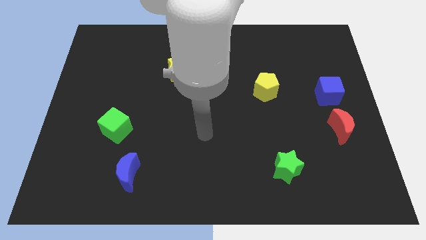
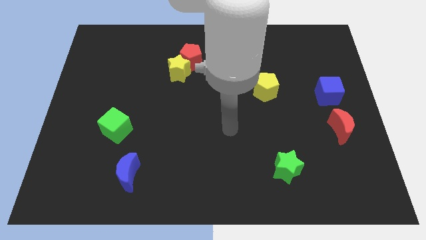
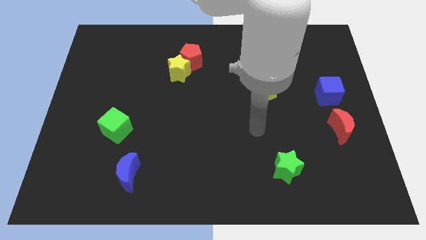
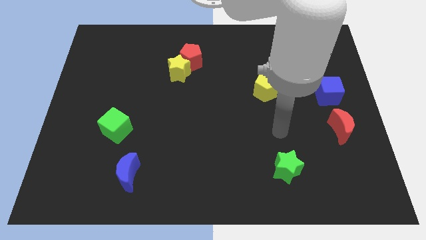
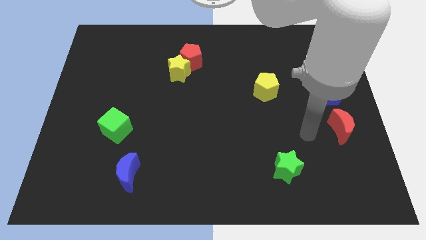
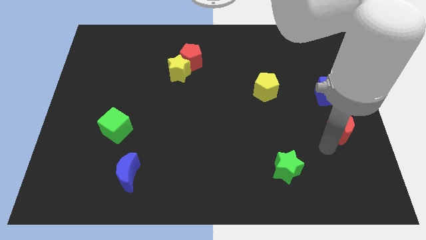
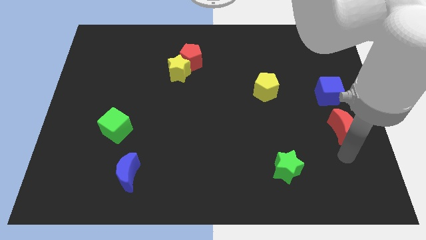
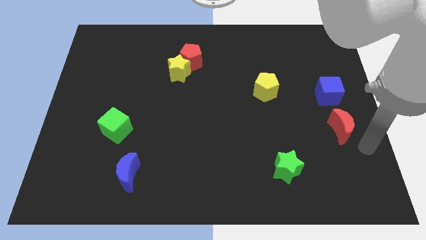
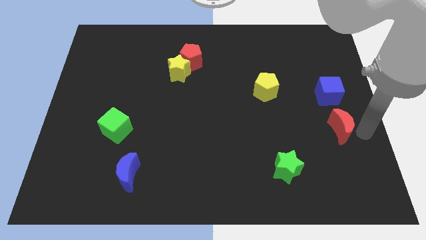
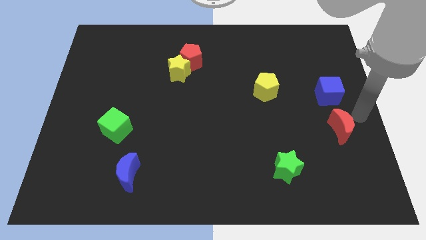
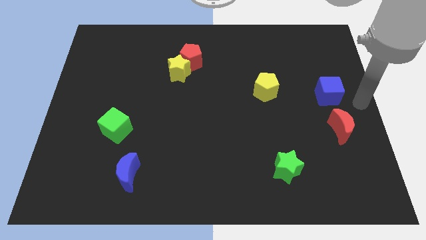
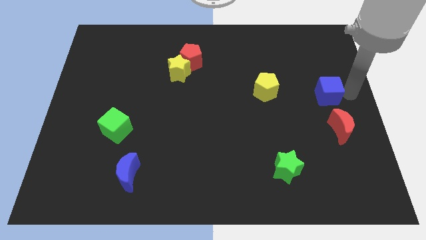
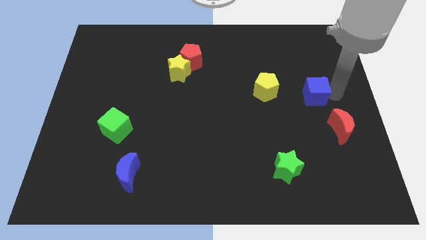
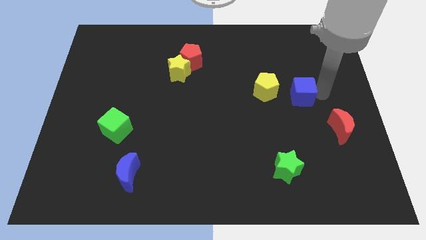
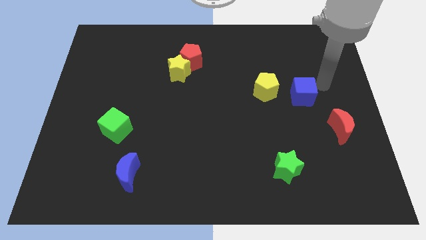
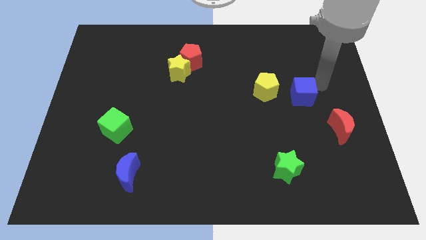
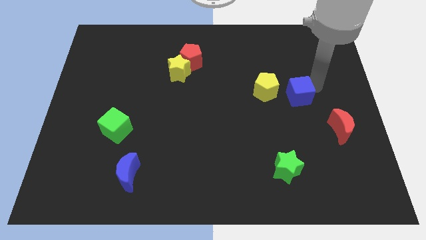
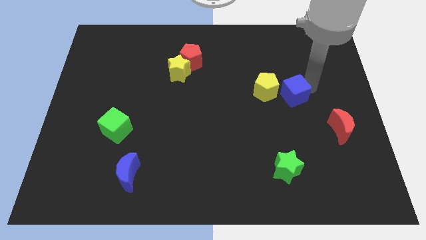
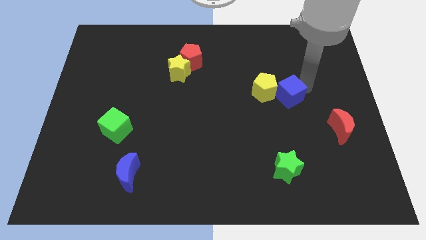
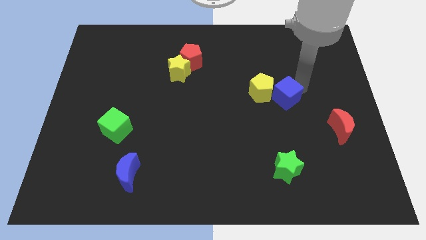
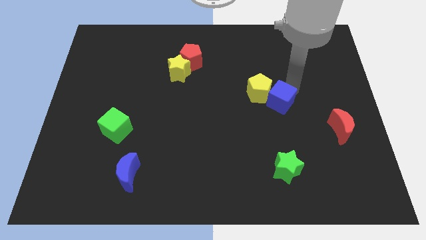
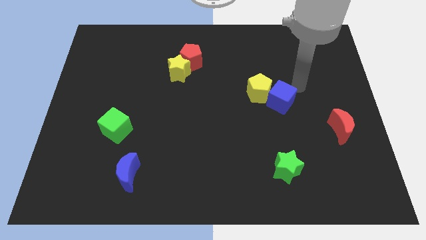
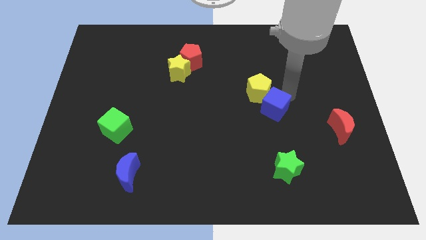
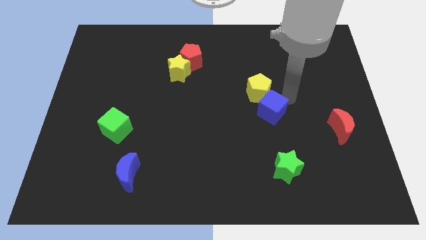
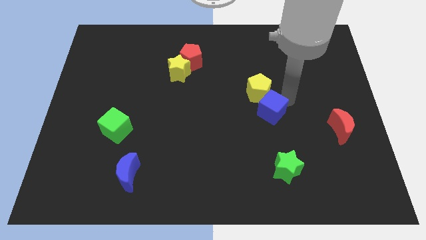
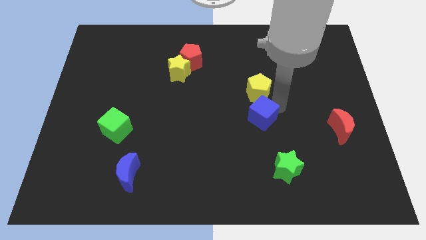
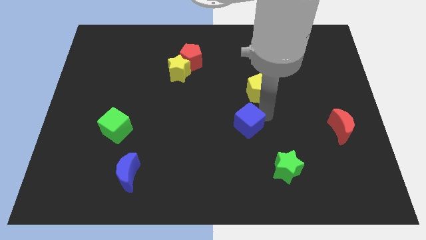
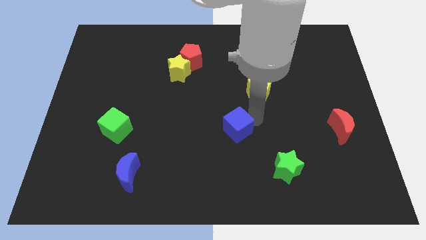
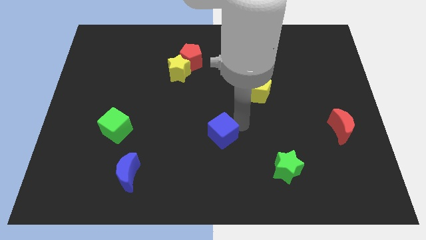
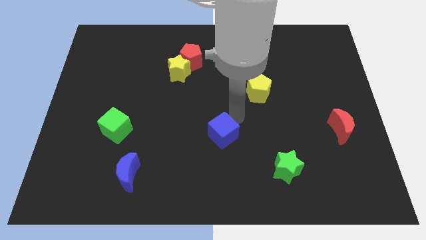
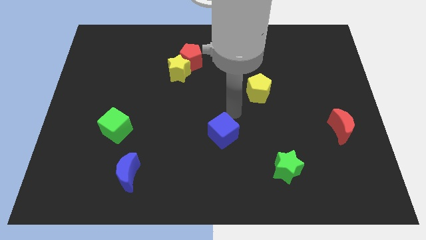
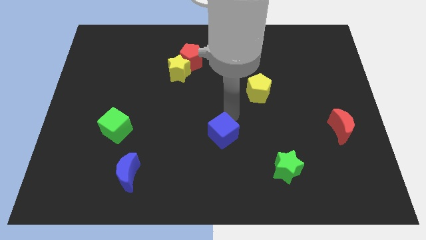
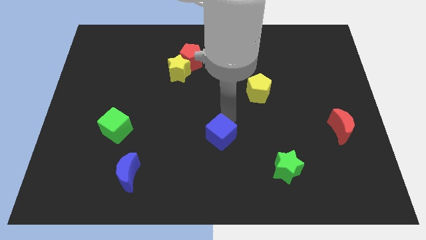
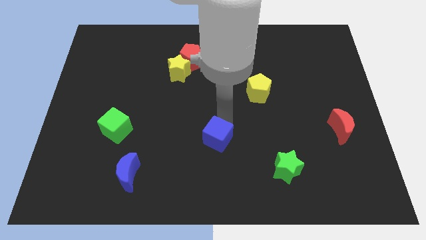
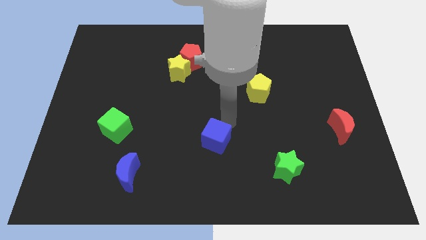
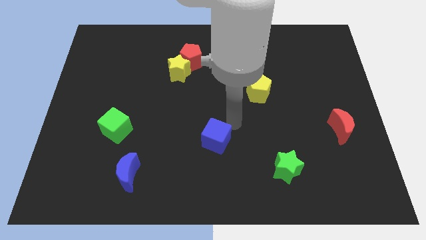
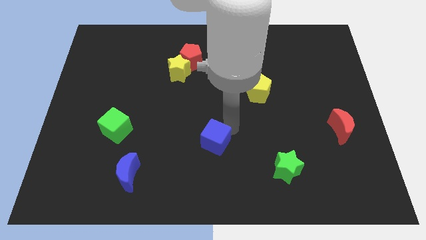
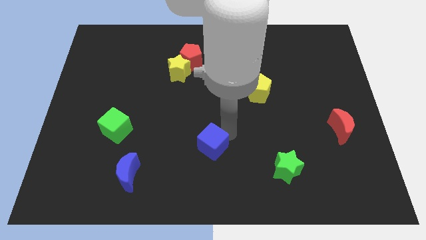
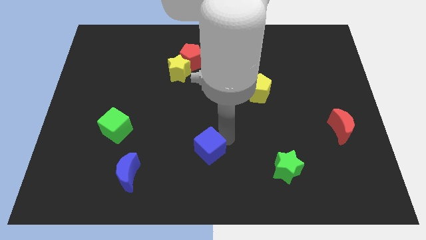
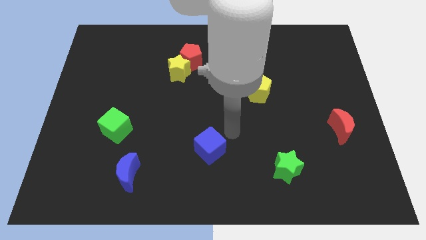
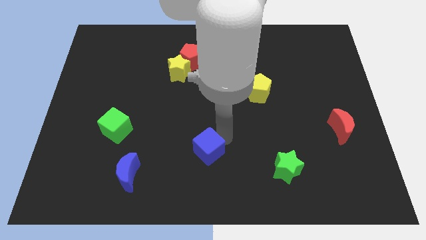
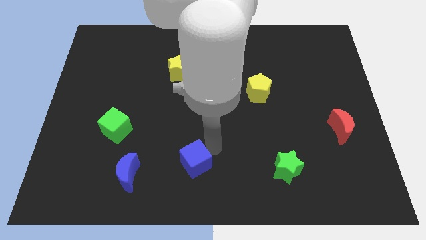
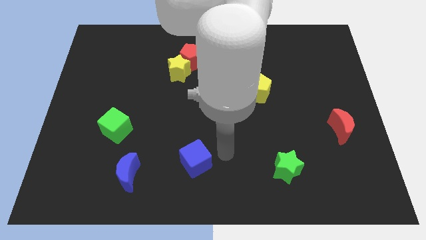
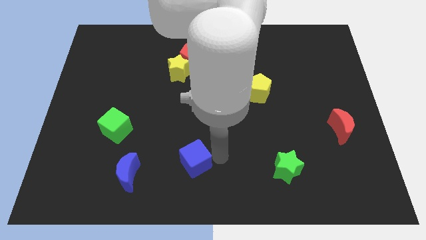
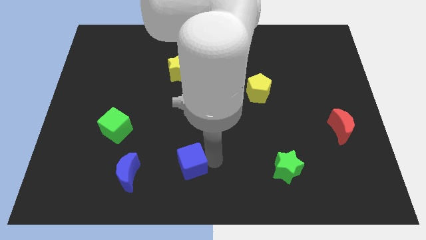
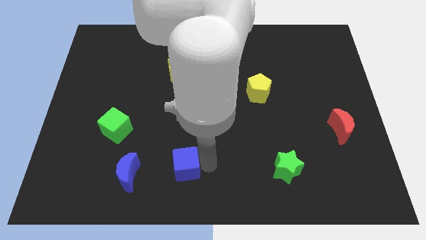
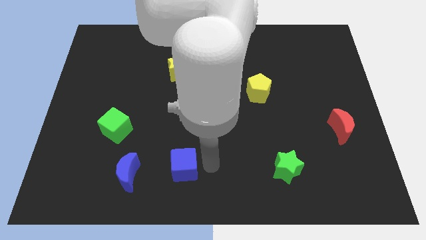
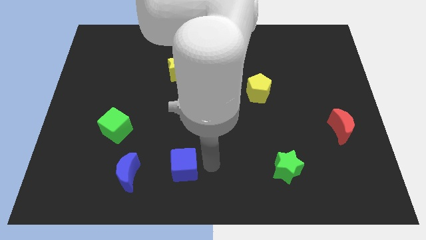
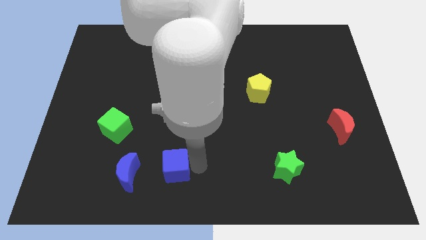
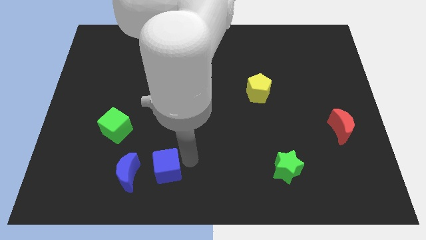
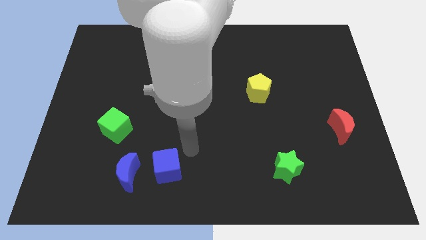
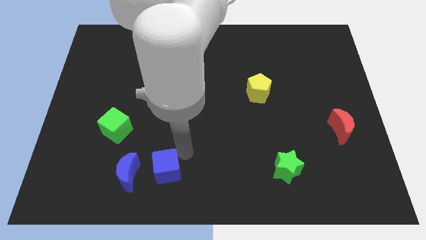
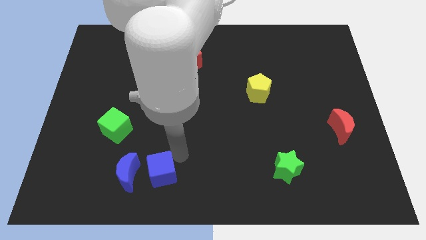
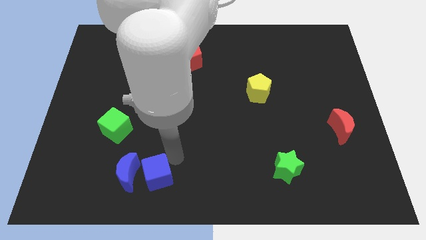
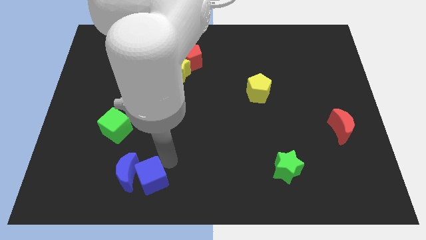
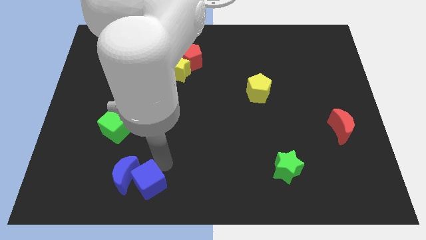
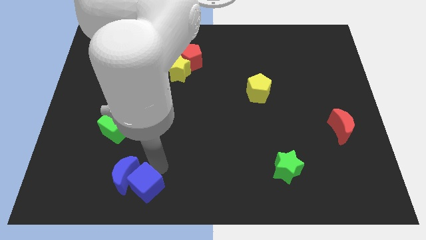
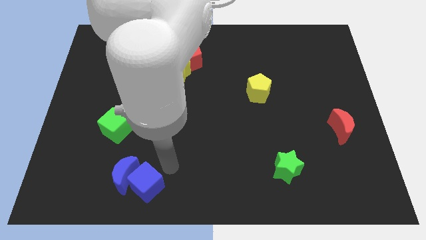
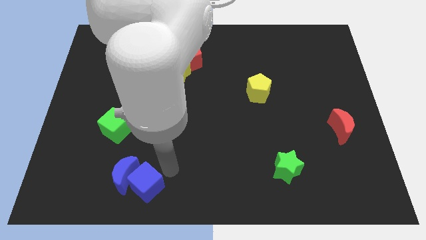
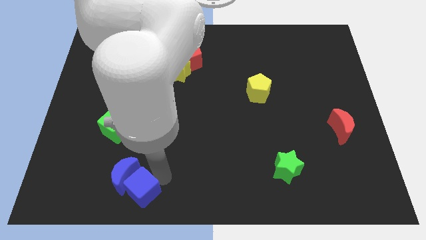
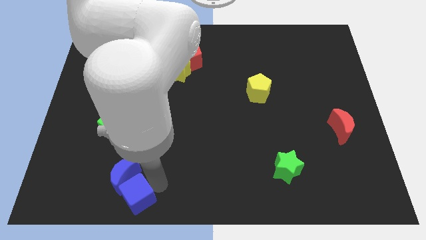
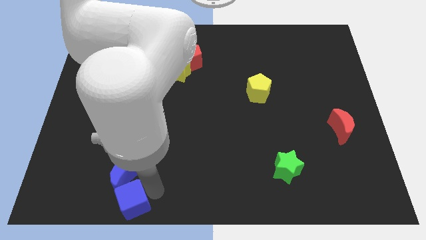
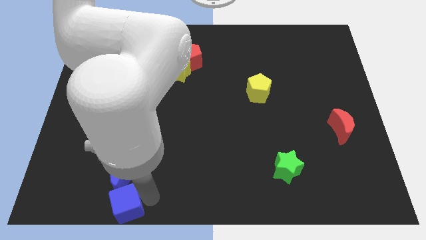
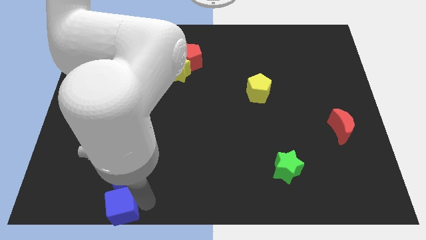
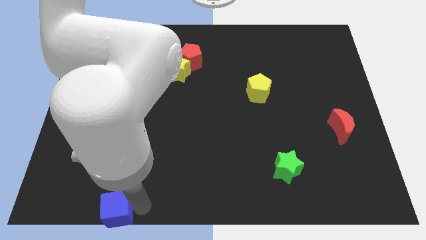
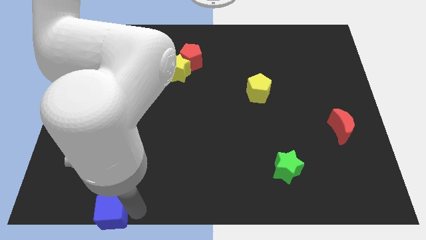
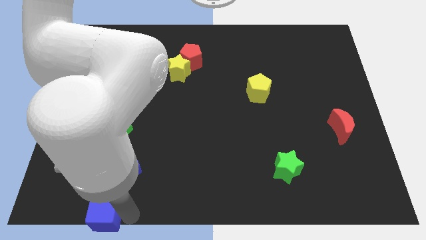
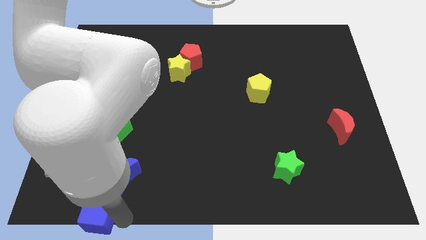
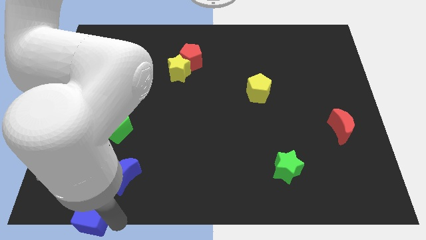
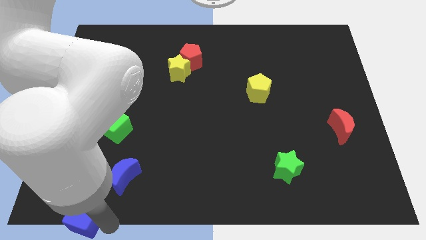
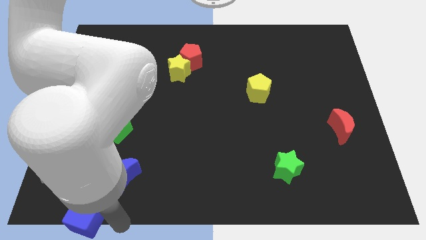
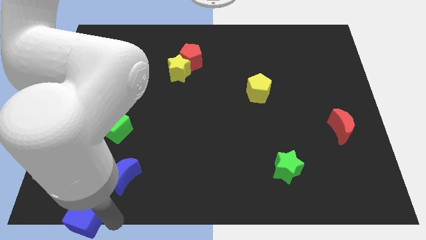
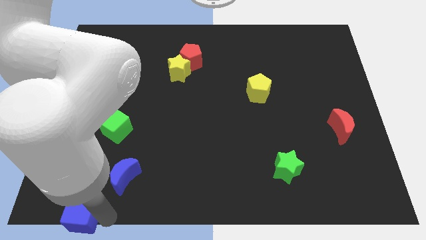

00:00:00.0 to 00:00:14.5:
push the blue cube to the lower left corner
